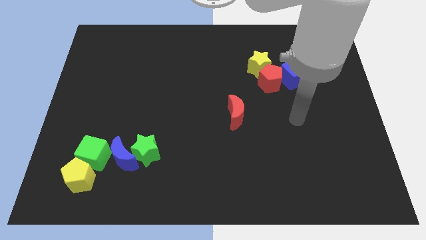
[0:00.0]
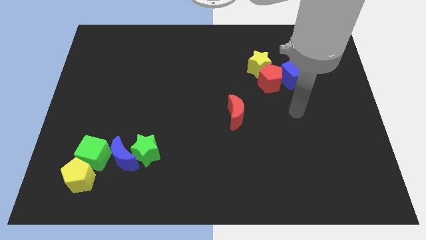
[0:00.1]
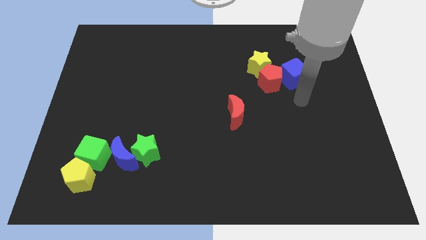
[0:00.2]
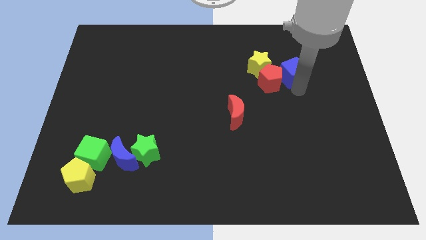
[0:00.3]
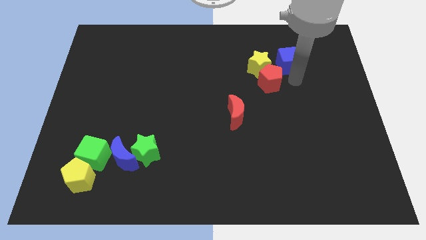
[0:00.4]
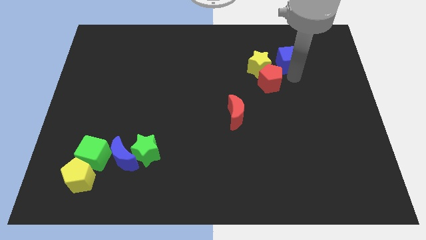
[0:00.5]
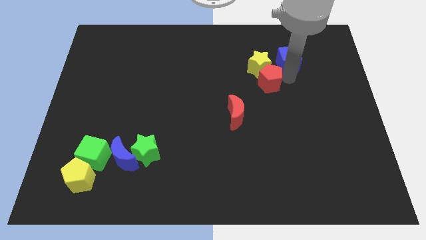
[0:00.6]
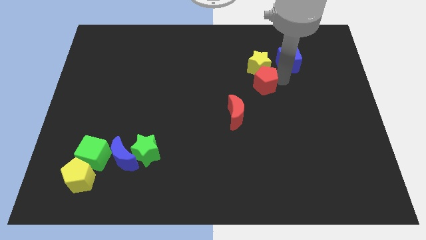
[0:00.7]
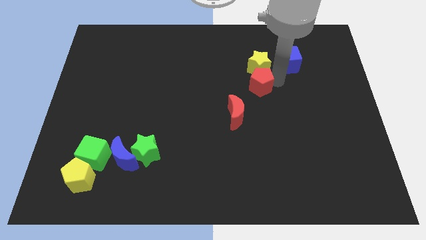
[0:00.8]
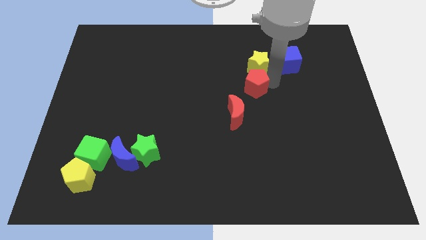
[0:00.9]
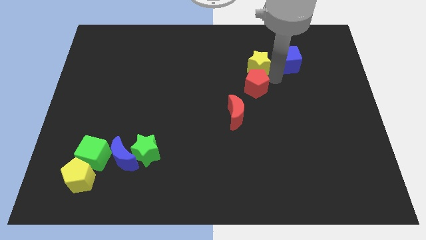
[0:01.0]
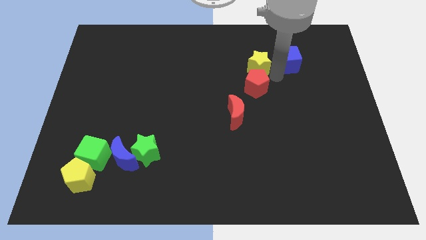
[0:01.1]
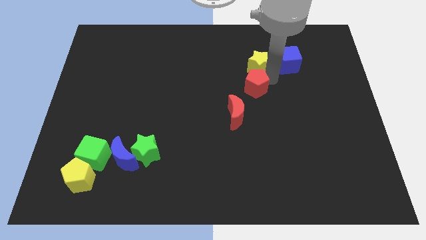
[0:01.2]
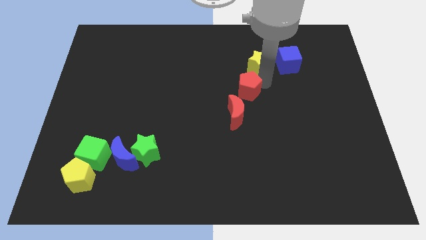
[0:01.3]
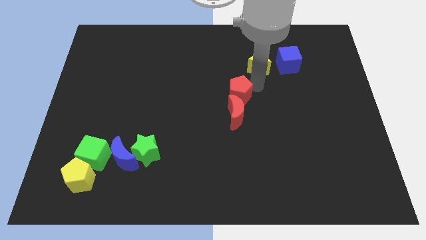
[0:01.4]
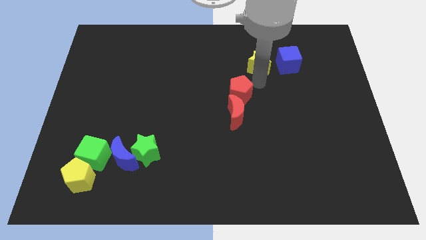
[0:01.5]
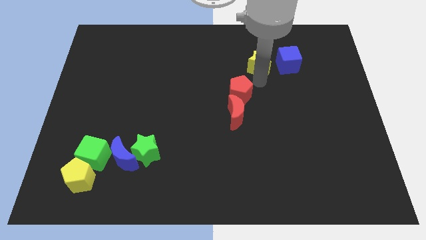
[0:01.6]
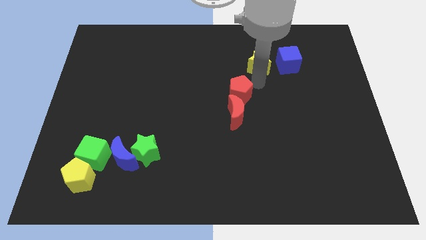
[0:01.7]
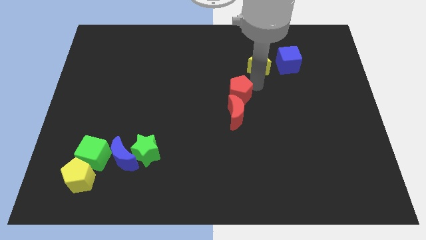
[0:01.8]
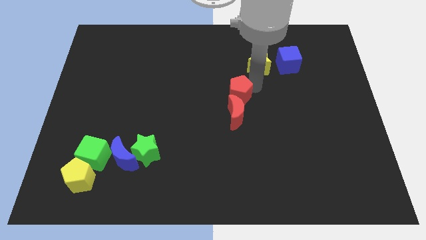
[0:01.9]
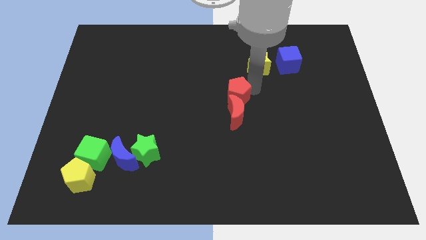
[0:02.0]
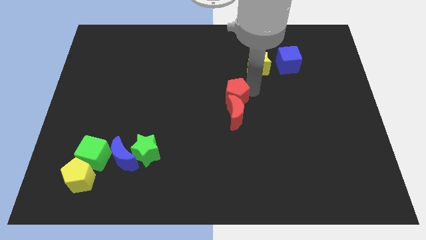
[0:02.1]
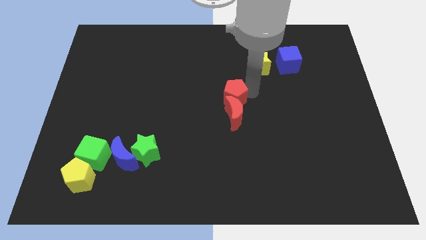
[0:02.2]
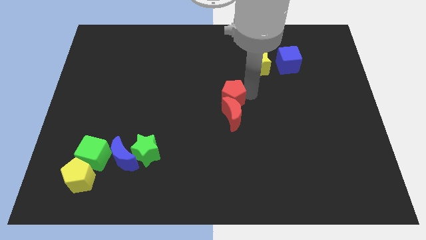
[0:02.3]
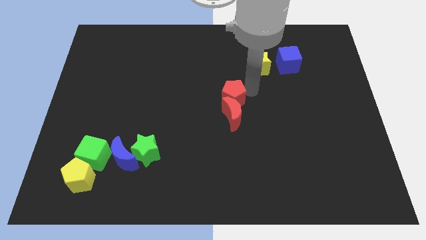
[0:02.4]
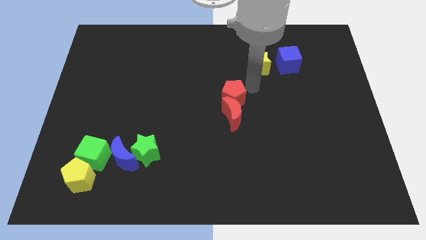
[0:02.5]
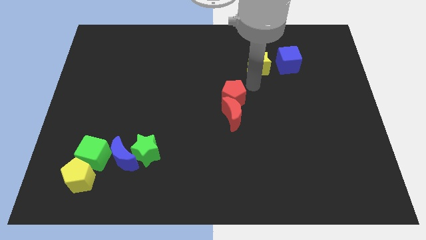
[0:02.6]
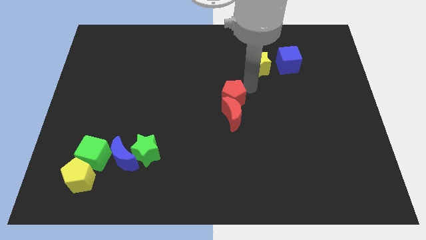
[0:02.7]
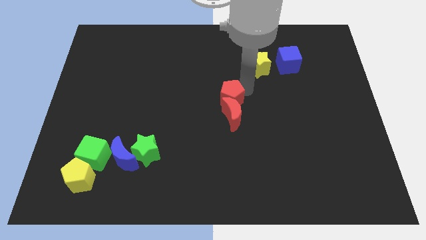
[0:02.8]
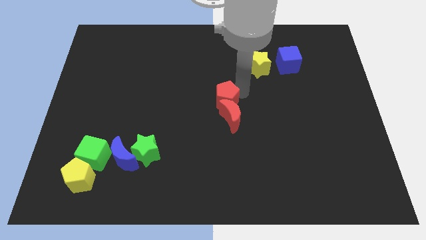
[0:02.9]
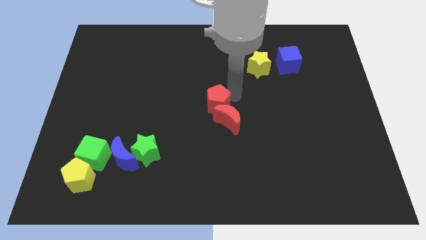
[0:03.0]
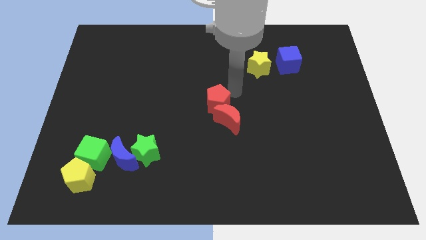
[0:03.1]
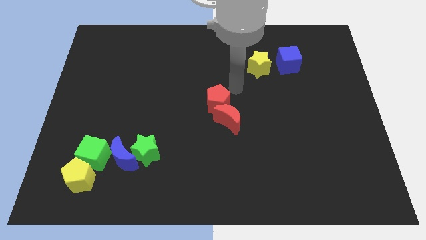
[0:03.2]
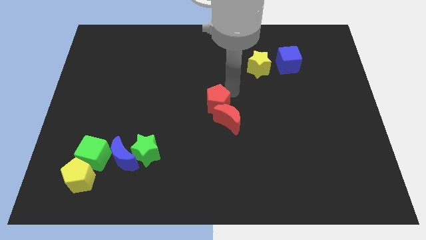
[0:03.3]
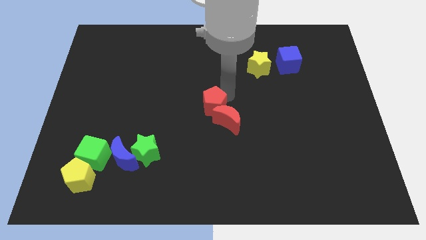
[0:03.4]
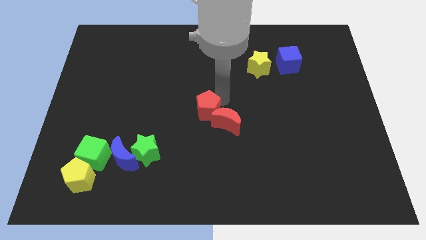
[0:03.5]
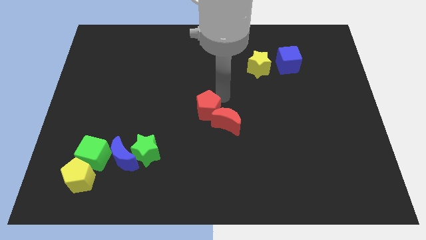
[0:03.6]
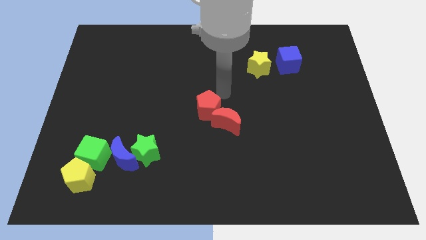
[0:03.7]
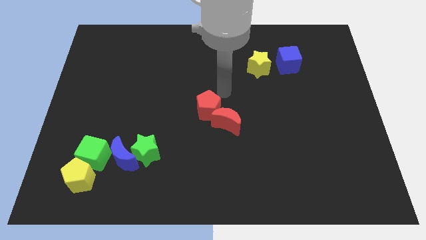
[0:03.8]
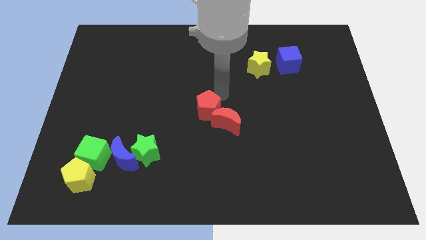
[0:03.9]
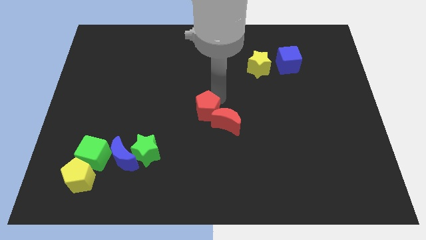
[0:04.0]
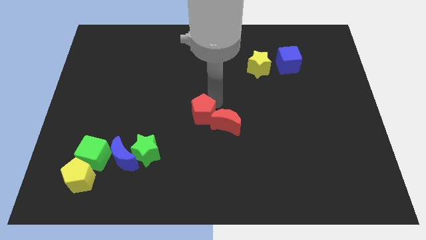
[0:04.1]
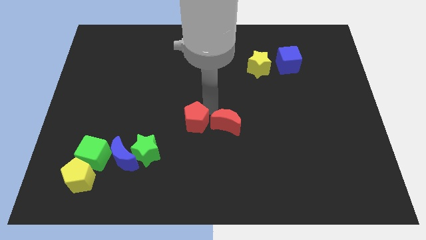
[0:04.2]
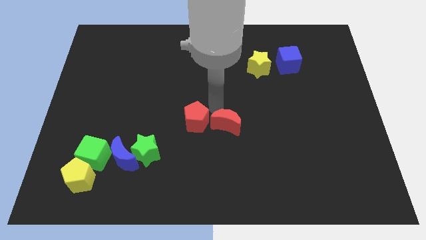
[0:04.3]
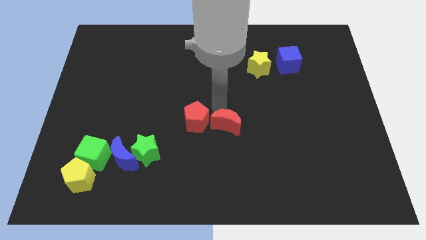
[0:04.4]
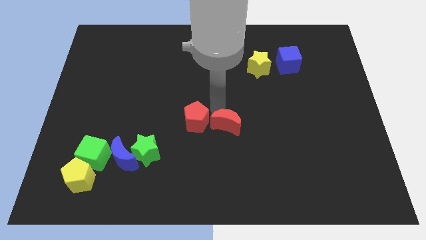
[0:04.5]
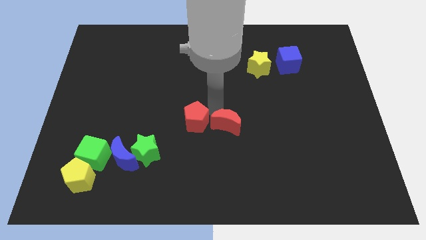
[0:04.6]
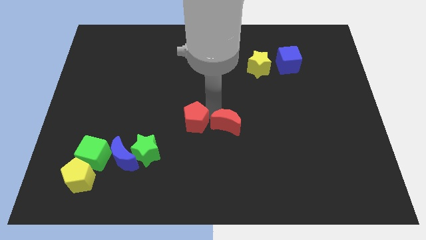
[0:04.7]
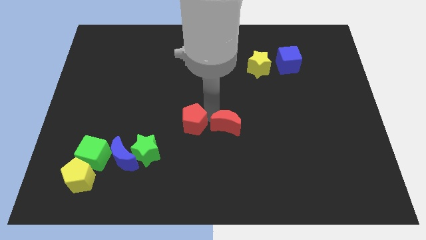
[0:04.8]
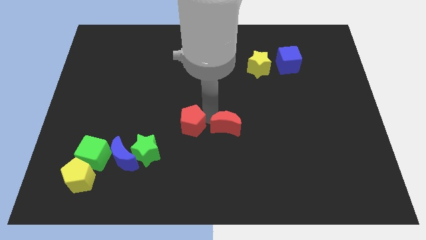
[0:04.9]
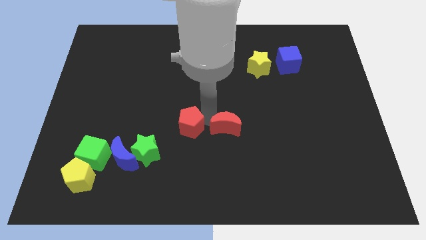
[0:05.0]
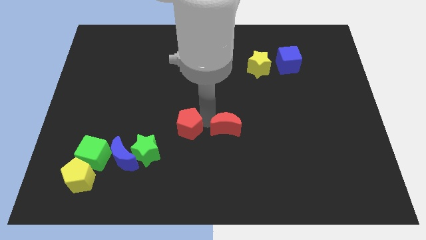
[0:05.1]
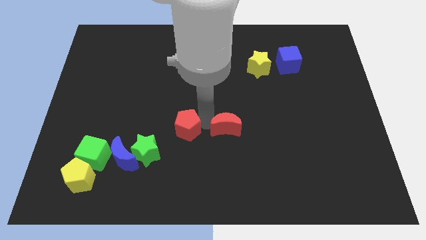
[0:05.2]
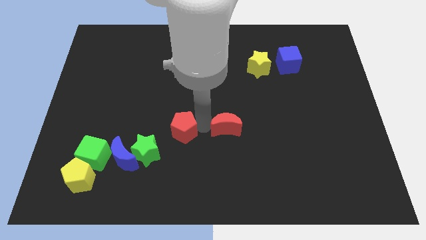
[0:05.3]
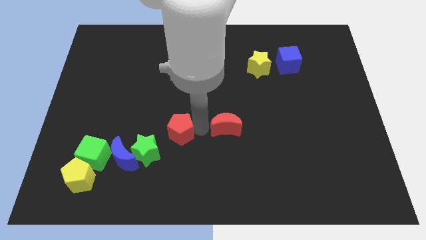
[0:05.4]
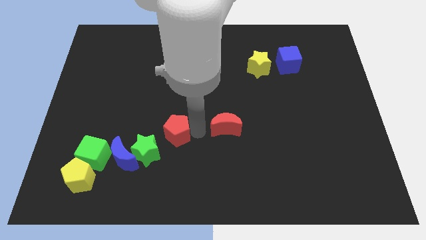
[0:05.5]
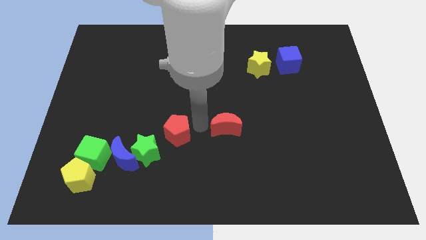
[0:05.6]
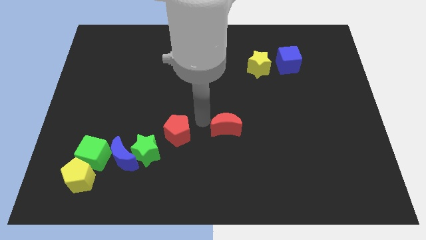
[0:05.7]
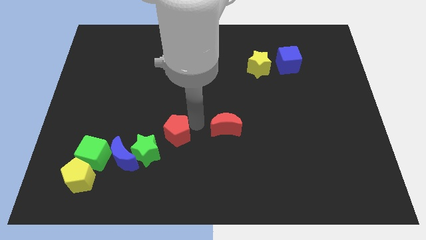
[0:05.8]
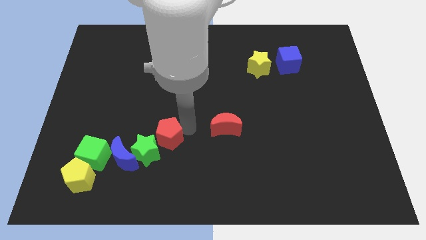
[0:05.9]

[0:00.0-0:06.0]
push the red pentagon towards the green star

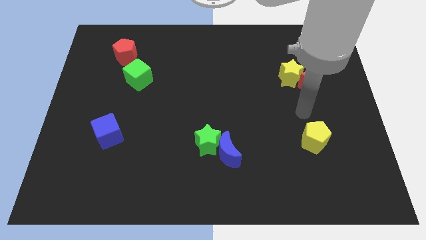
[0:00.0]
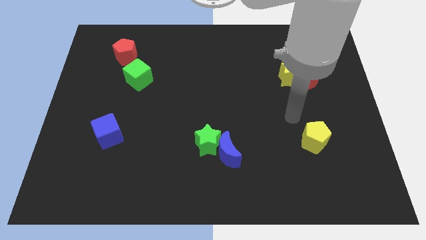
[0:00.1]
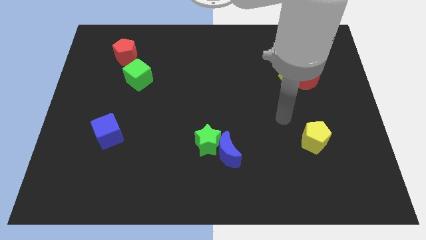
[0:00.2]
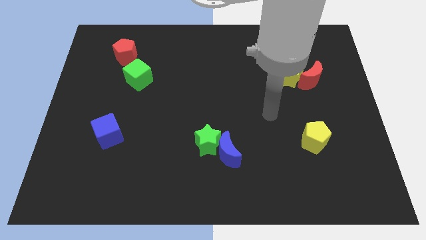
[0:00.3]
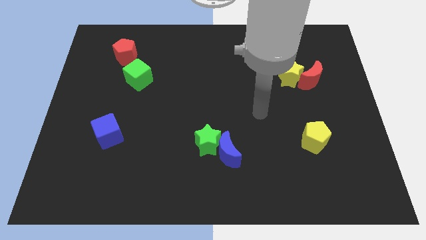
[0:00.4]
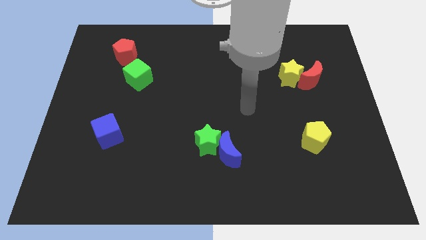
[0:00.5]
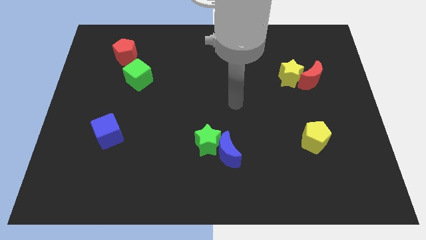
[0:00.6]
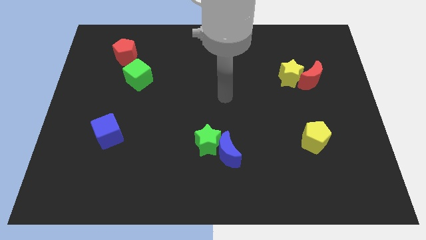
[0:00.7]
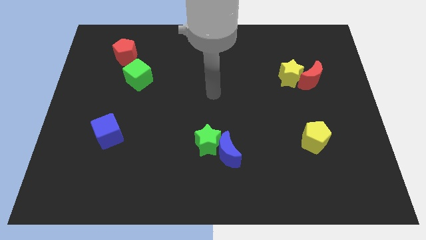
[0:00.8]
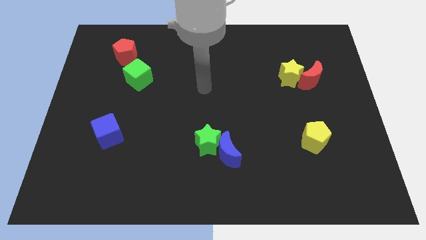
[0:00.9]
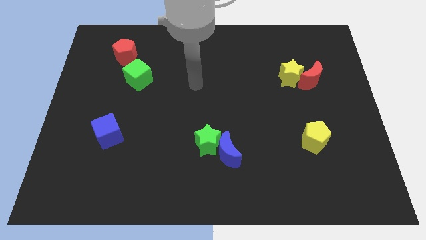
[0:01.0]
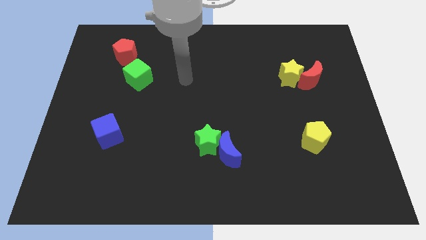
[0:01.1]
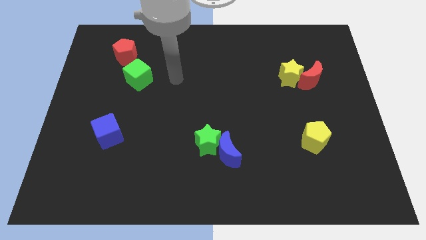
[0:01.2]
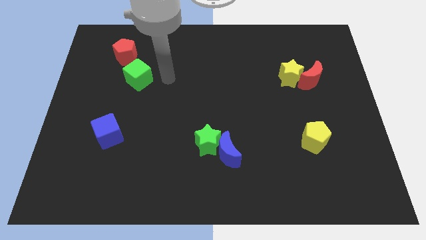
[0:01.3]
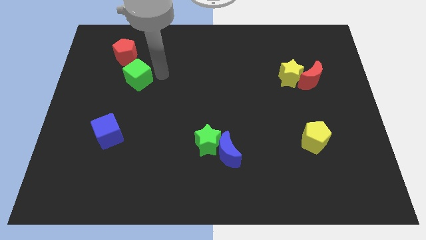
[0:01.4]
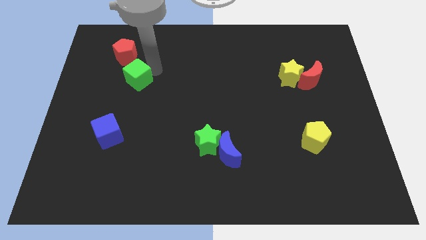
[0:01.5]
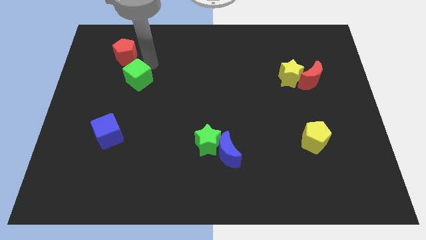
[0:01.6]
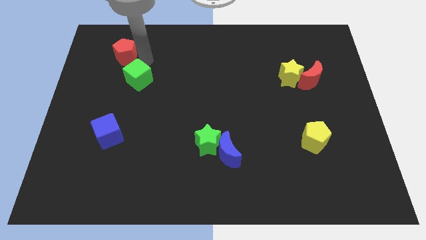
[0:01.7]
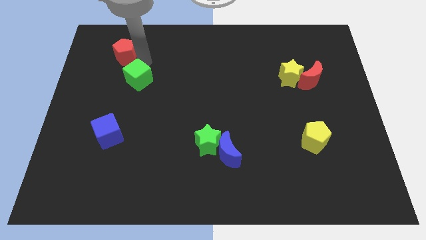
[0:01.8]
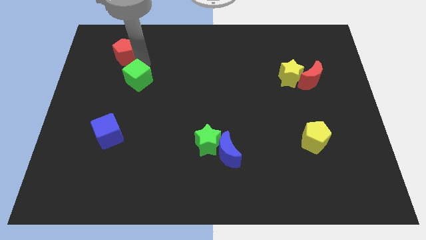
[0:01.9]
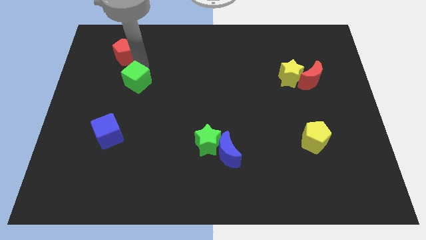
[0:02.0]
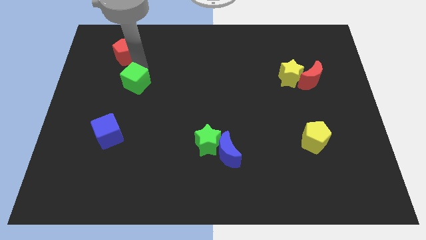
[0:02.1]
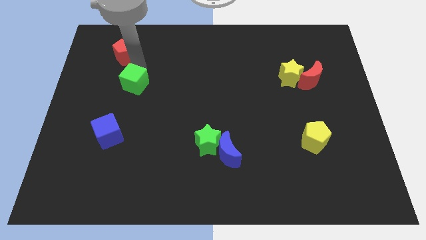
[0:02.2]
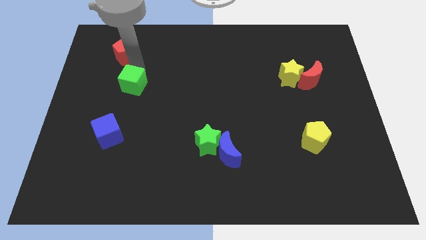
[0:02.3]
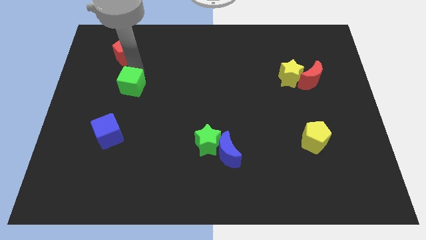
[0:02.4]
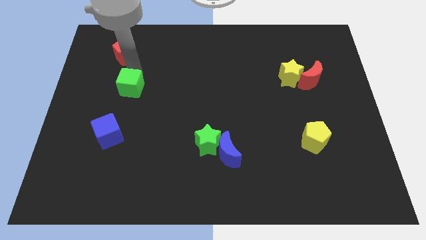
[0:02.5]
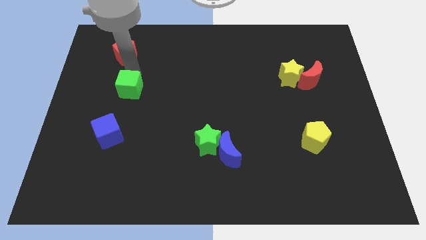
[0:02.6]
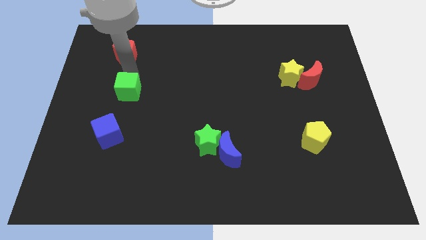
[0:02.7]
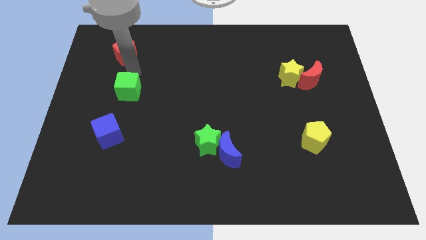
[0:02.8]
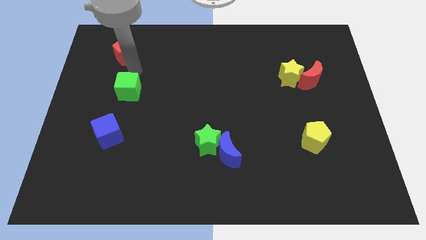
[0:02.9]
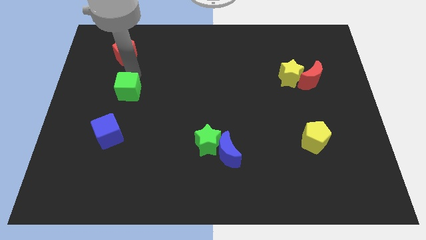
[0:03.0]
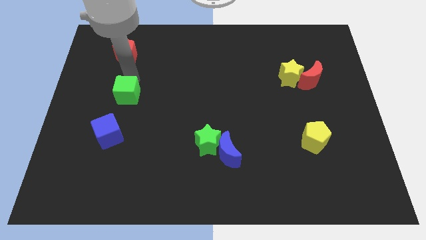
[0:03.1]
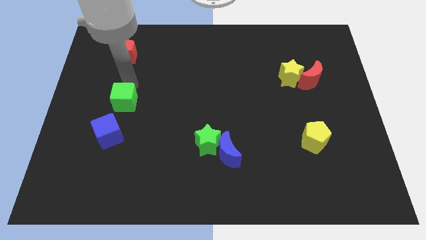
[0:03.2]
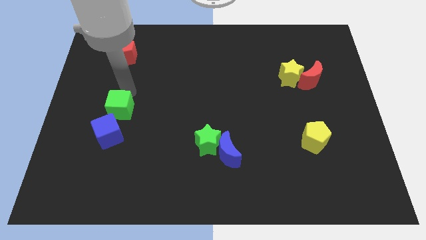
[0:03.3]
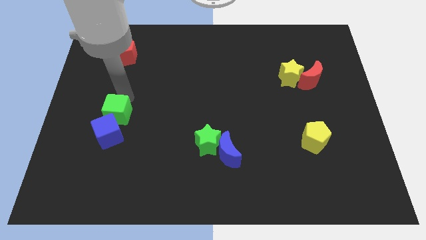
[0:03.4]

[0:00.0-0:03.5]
push the green cube next to the blue cube
